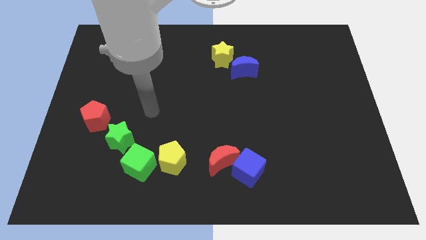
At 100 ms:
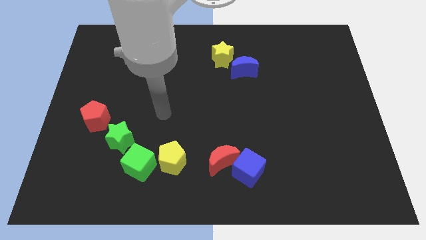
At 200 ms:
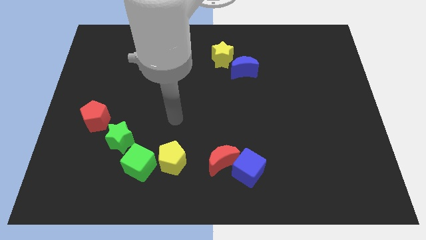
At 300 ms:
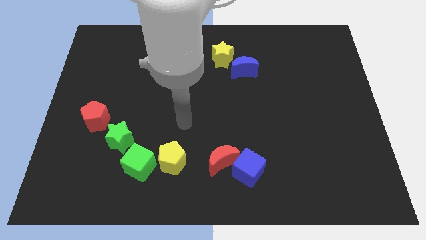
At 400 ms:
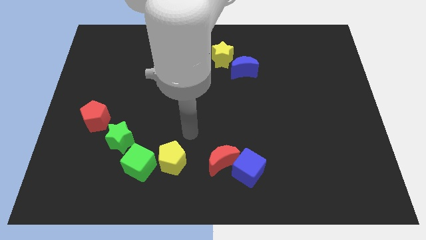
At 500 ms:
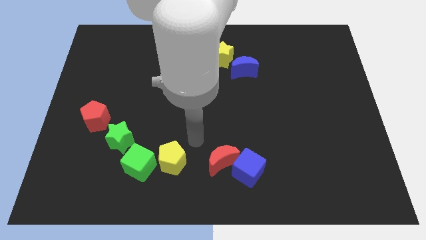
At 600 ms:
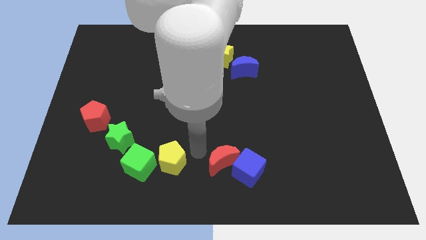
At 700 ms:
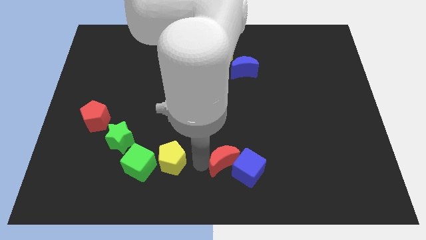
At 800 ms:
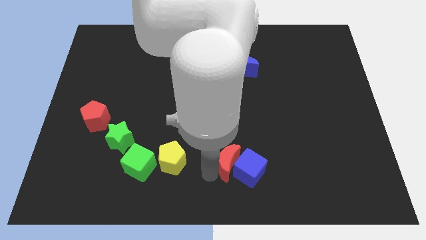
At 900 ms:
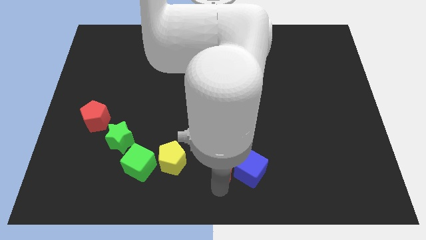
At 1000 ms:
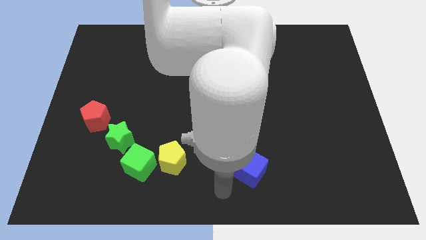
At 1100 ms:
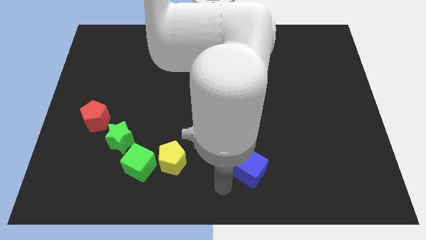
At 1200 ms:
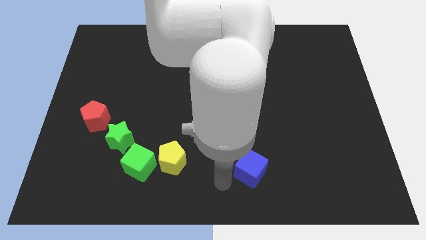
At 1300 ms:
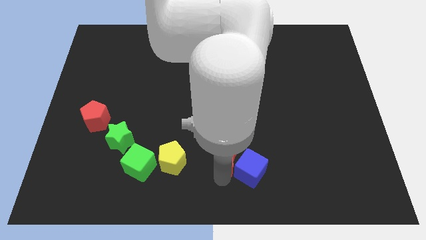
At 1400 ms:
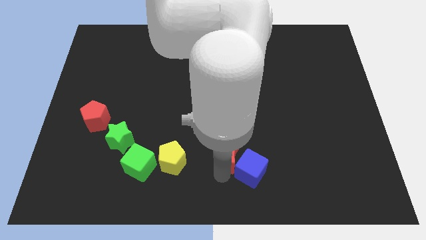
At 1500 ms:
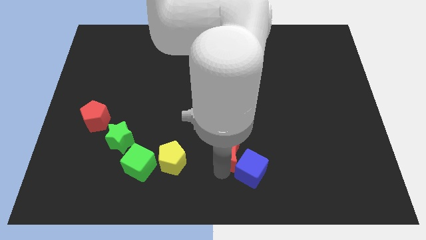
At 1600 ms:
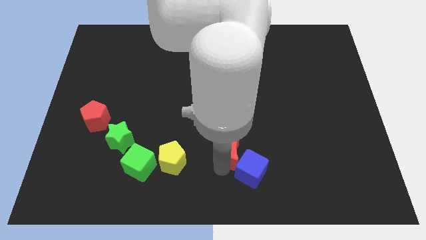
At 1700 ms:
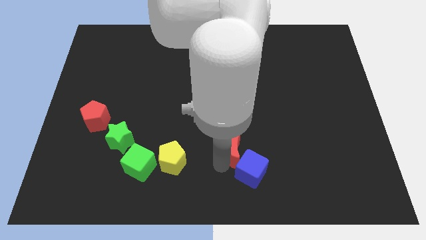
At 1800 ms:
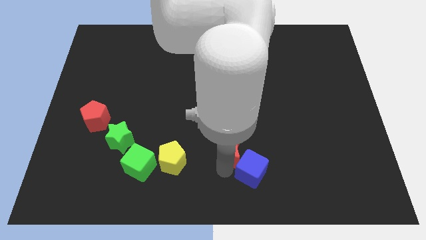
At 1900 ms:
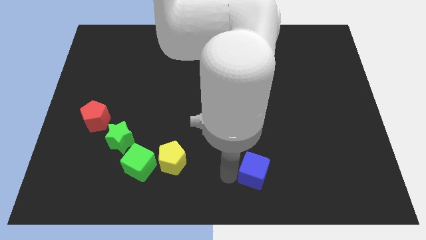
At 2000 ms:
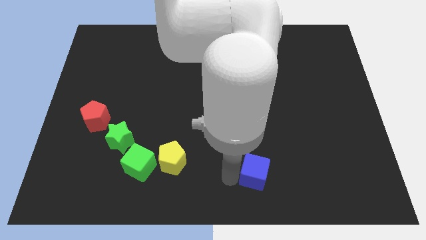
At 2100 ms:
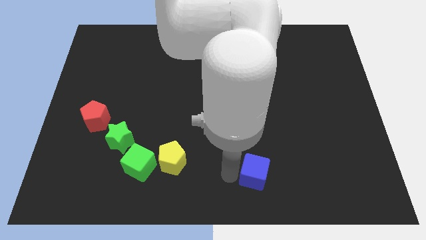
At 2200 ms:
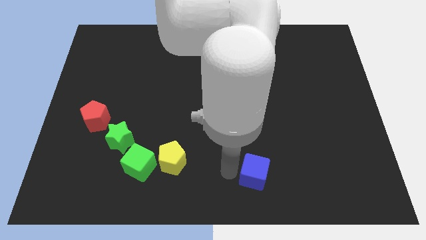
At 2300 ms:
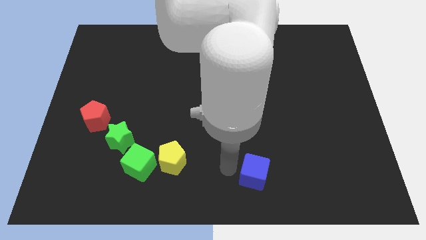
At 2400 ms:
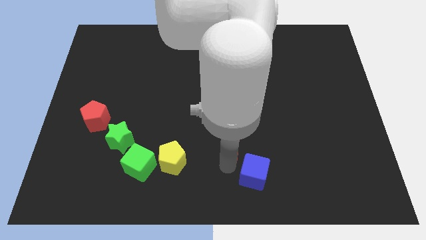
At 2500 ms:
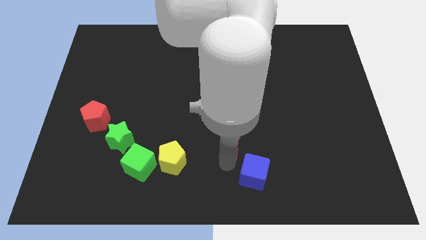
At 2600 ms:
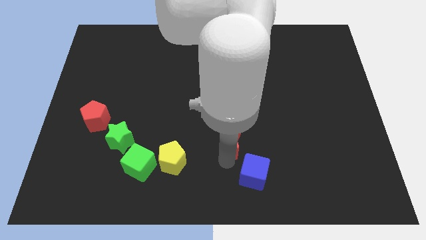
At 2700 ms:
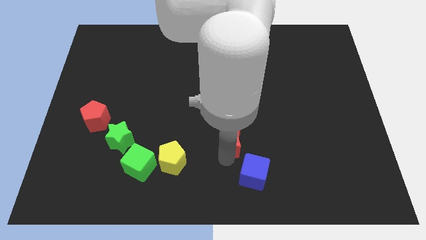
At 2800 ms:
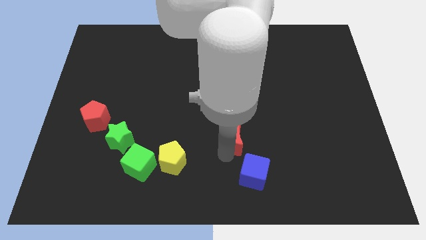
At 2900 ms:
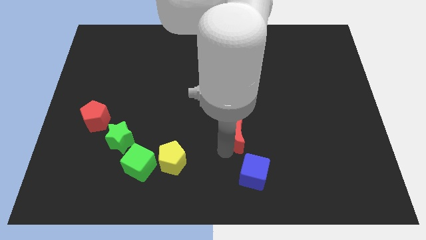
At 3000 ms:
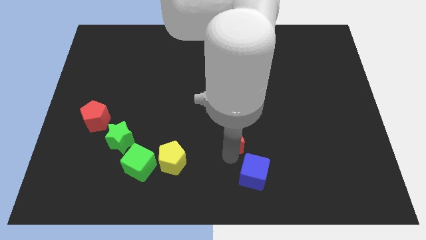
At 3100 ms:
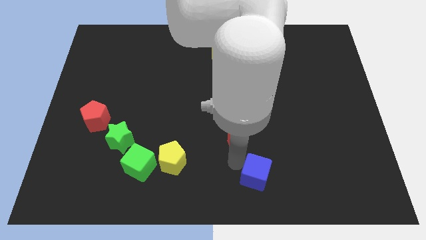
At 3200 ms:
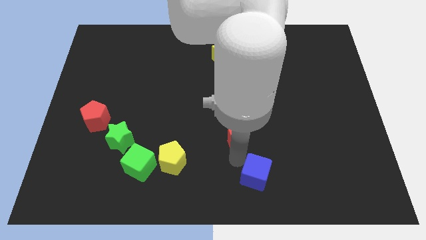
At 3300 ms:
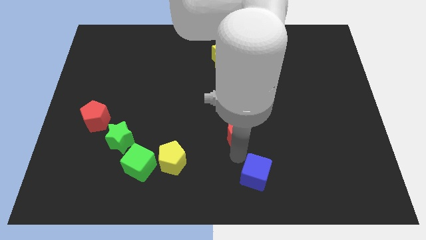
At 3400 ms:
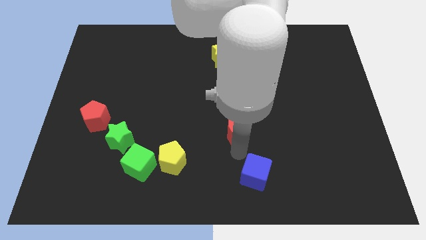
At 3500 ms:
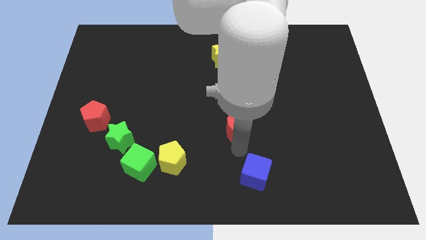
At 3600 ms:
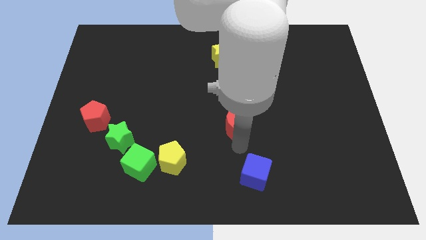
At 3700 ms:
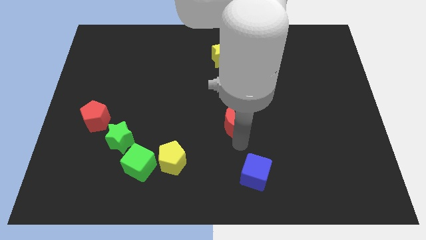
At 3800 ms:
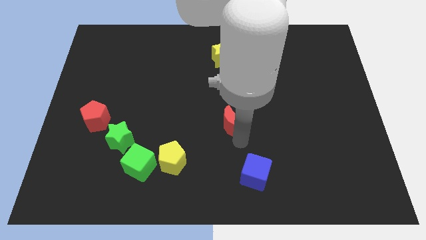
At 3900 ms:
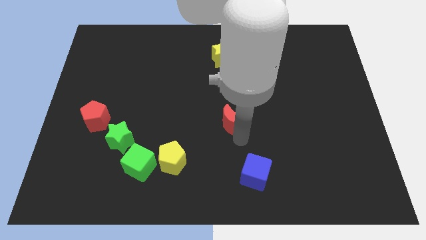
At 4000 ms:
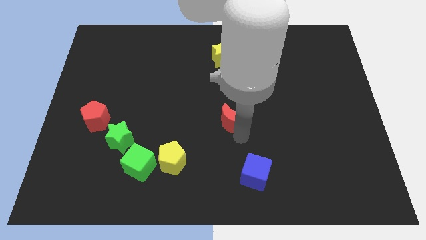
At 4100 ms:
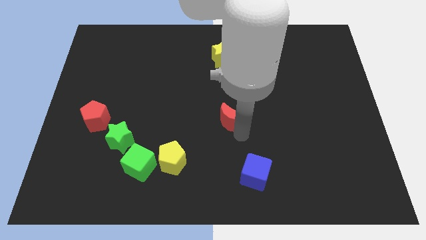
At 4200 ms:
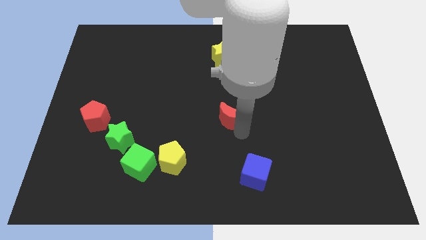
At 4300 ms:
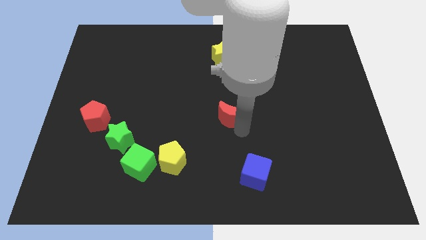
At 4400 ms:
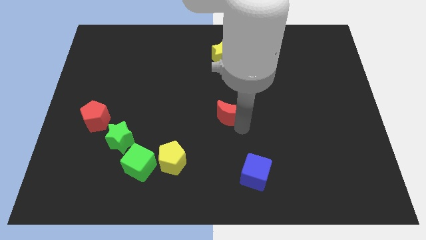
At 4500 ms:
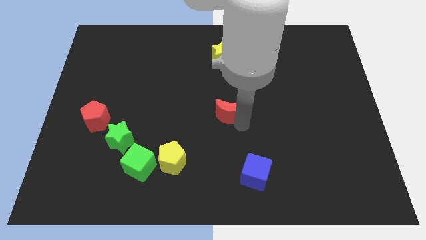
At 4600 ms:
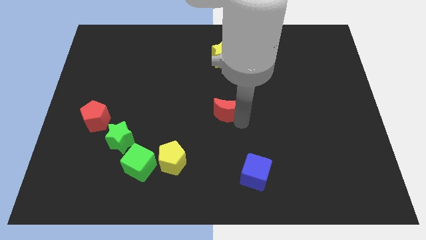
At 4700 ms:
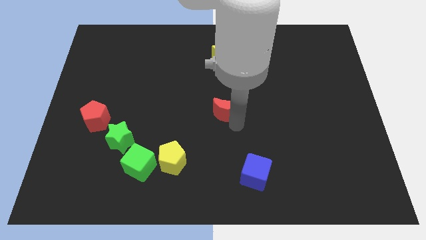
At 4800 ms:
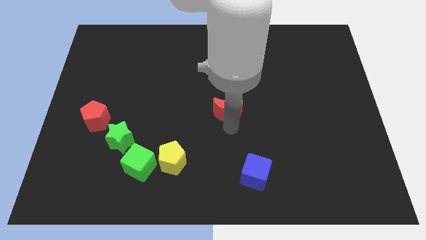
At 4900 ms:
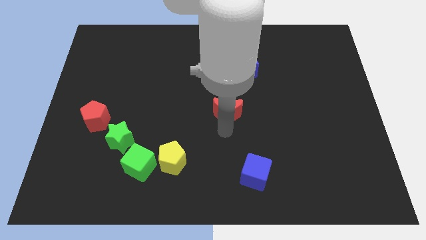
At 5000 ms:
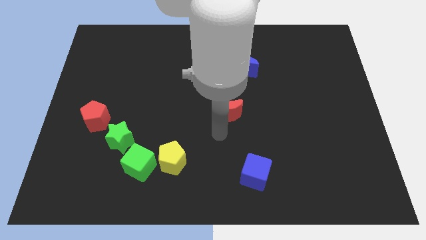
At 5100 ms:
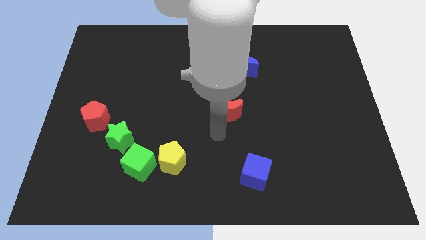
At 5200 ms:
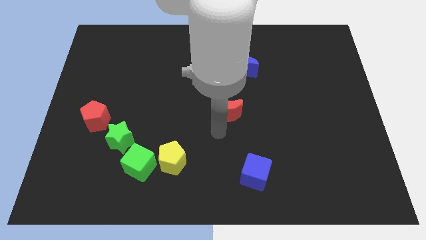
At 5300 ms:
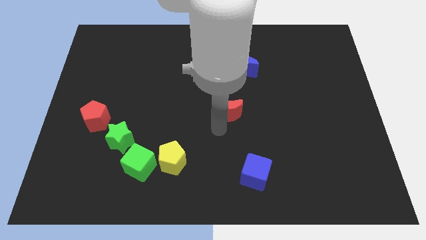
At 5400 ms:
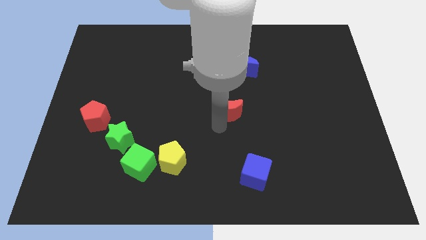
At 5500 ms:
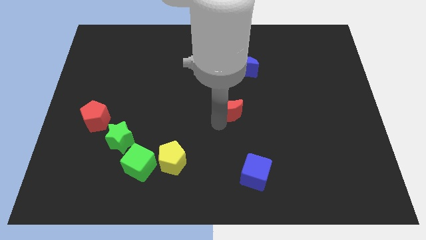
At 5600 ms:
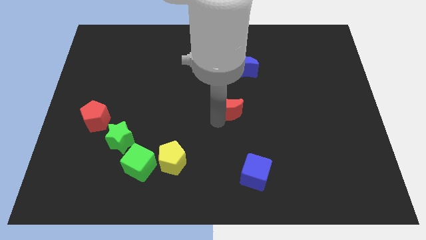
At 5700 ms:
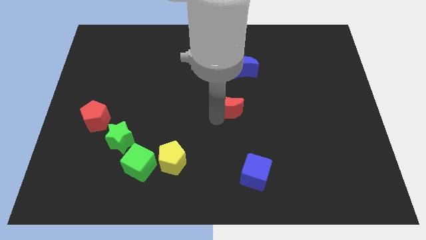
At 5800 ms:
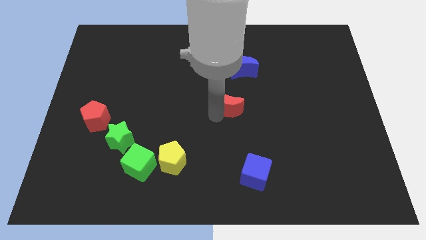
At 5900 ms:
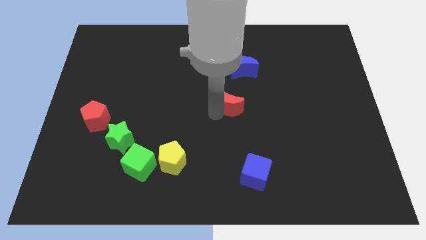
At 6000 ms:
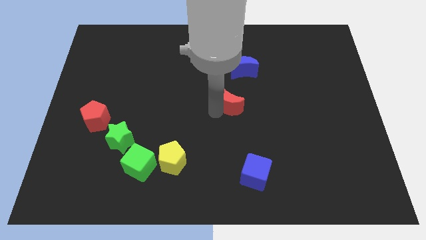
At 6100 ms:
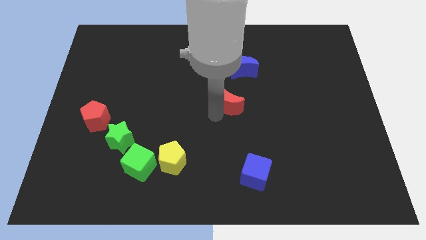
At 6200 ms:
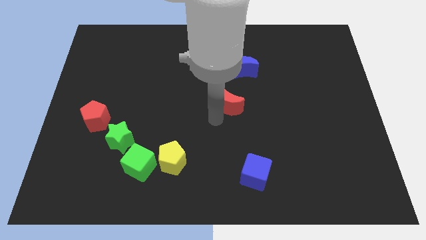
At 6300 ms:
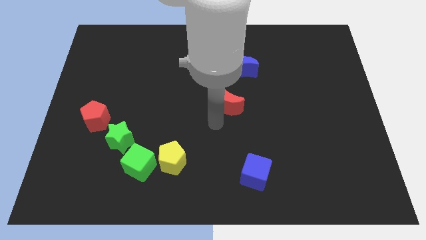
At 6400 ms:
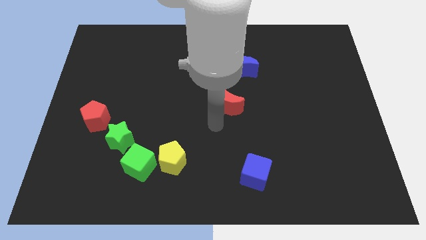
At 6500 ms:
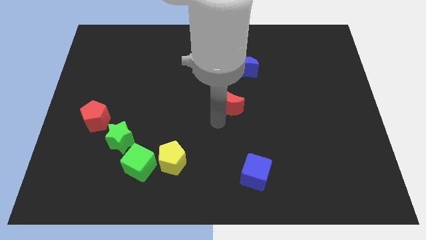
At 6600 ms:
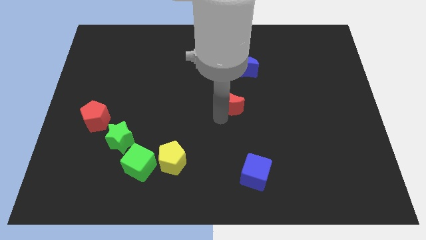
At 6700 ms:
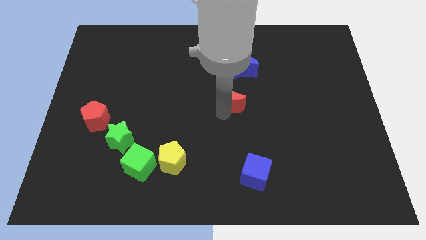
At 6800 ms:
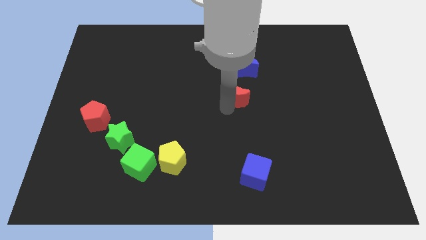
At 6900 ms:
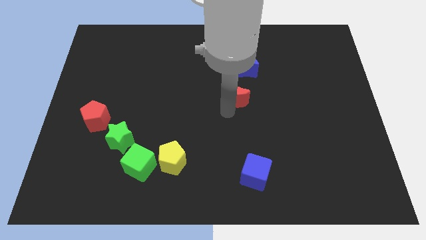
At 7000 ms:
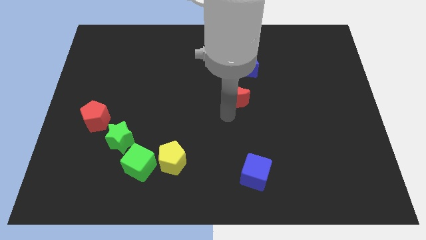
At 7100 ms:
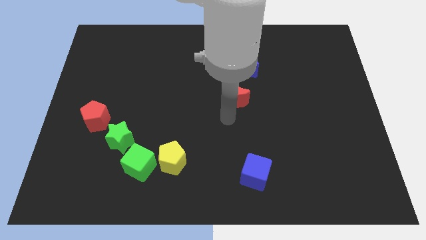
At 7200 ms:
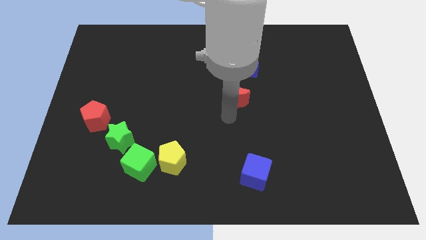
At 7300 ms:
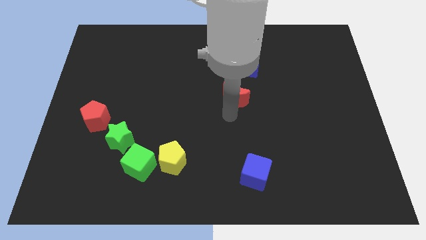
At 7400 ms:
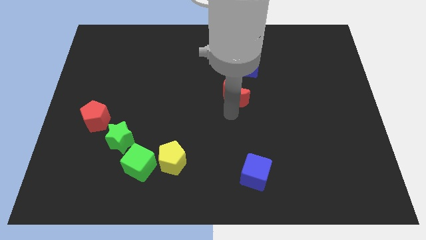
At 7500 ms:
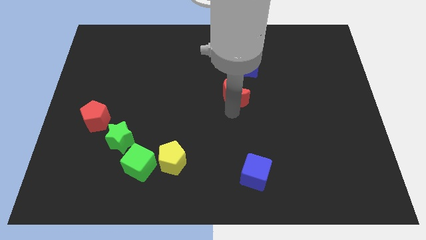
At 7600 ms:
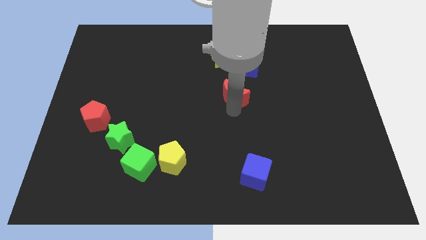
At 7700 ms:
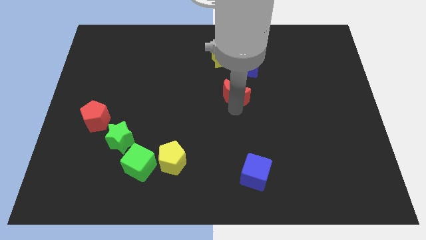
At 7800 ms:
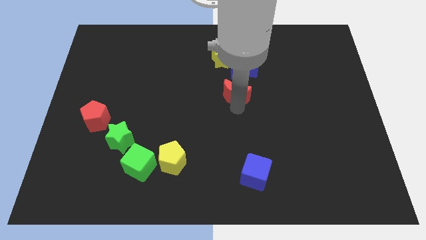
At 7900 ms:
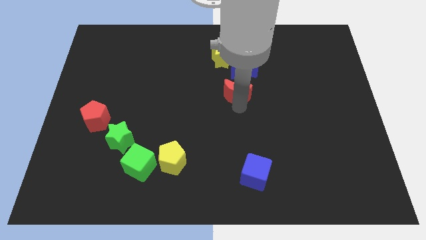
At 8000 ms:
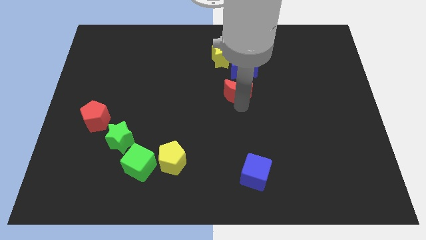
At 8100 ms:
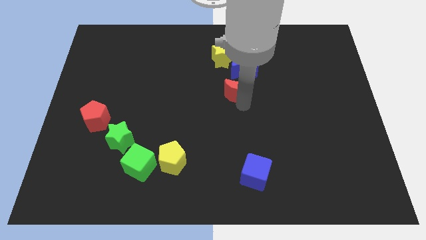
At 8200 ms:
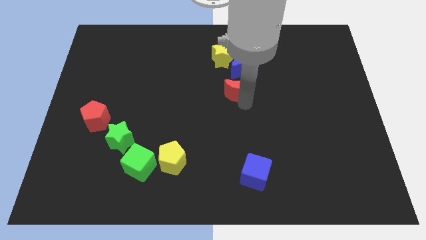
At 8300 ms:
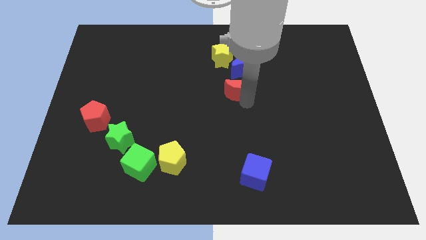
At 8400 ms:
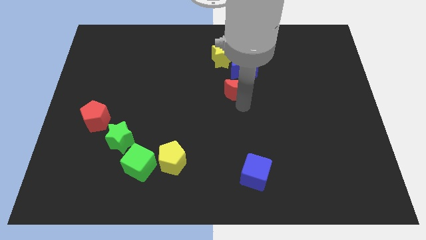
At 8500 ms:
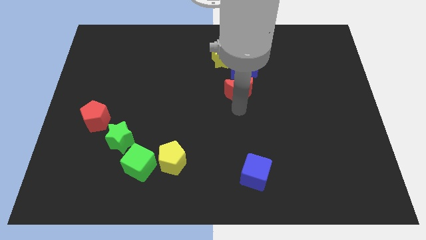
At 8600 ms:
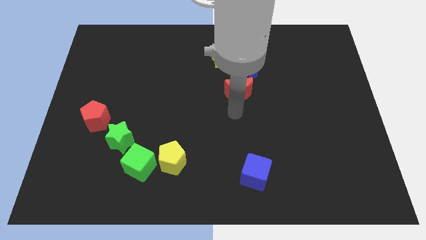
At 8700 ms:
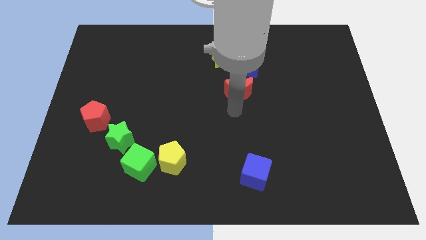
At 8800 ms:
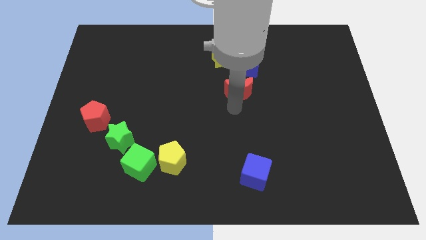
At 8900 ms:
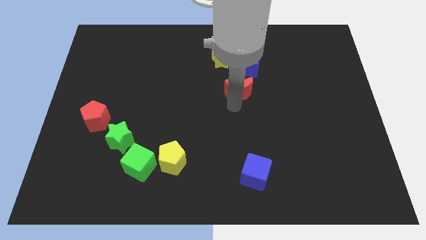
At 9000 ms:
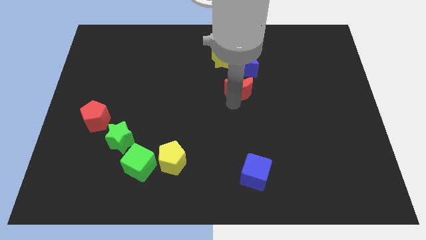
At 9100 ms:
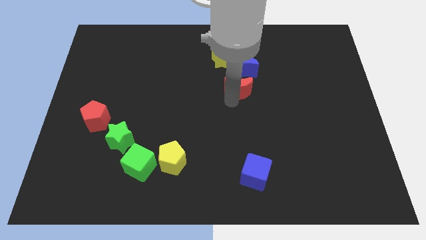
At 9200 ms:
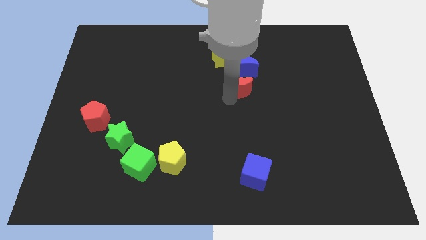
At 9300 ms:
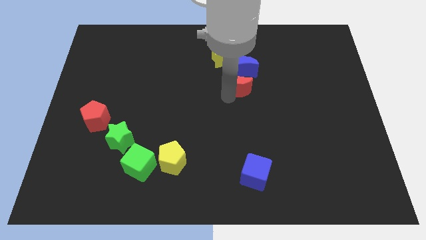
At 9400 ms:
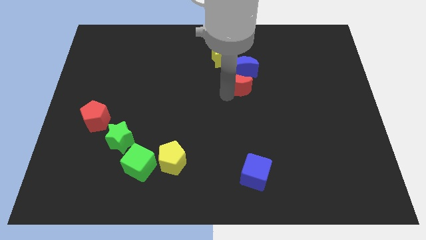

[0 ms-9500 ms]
move the red moon to the blue moon
